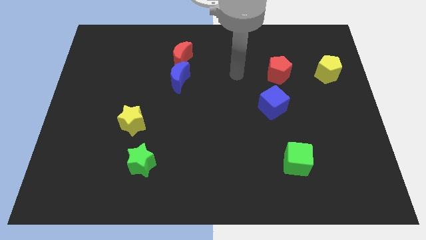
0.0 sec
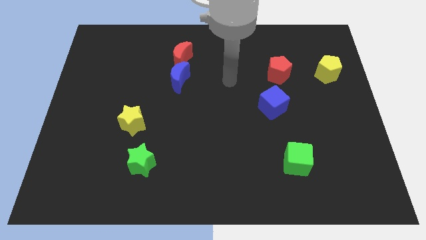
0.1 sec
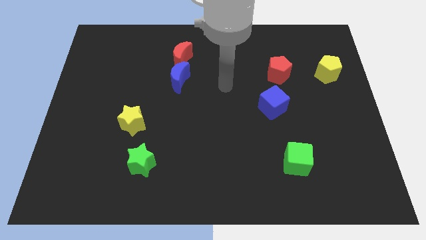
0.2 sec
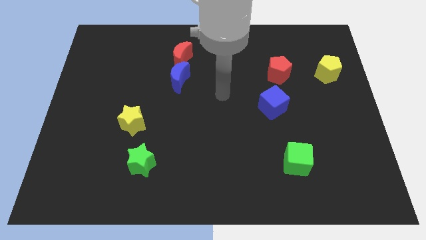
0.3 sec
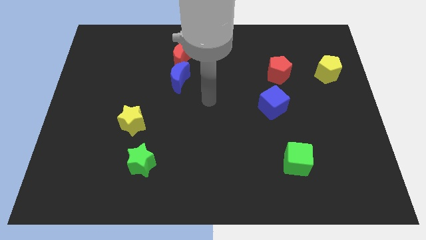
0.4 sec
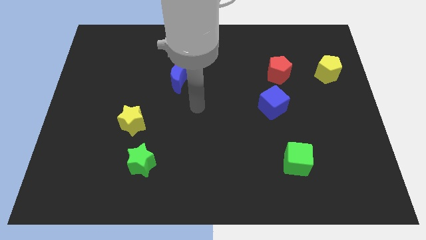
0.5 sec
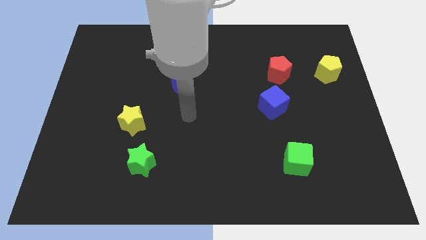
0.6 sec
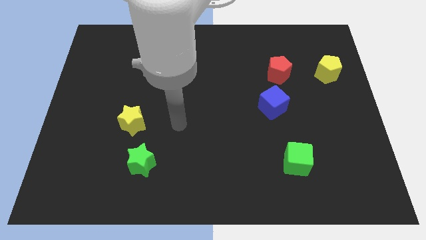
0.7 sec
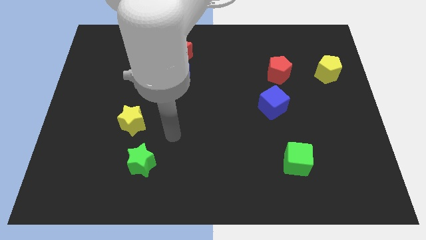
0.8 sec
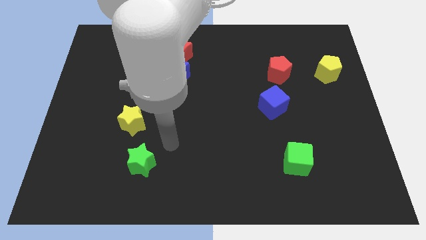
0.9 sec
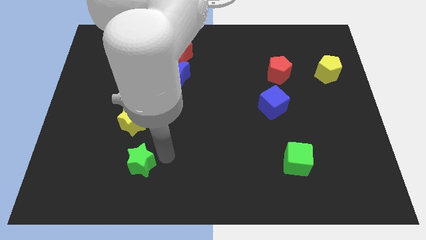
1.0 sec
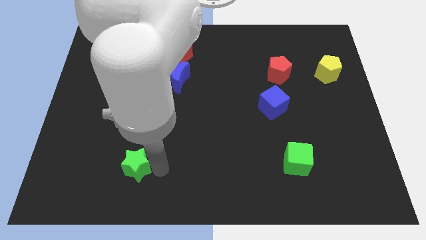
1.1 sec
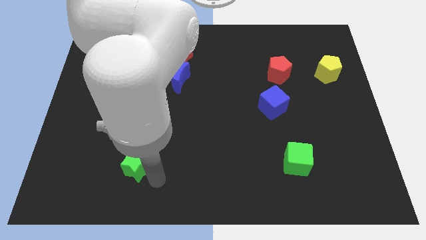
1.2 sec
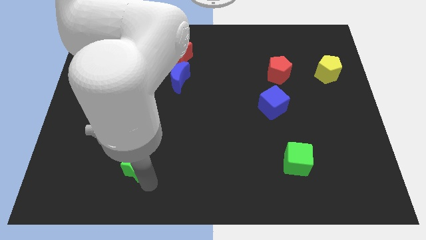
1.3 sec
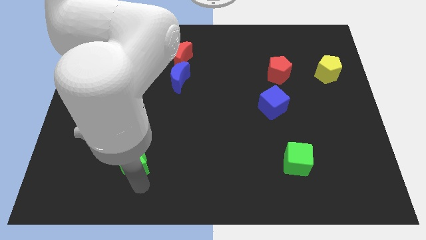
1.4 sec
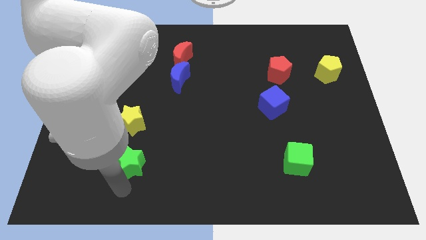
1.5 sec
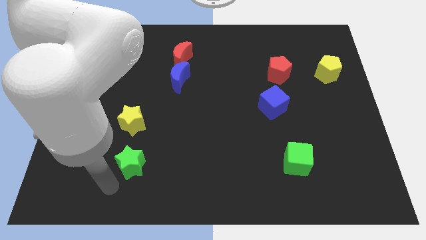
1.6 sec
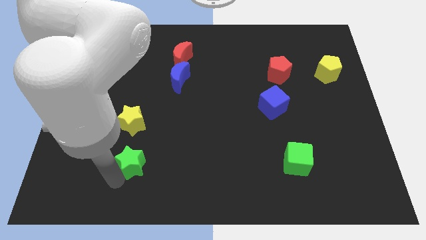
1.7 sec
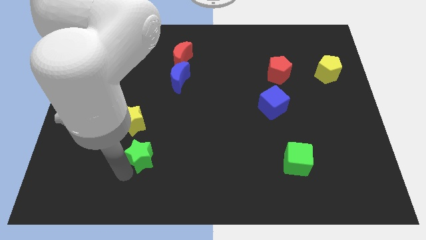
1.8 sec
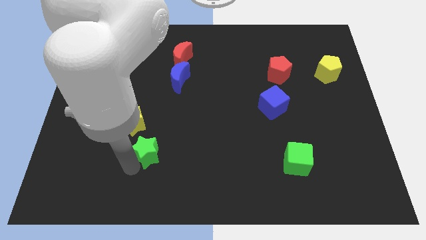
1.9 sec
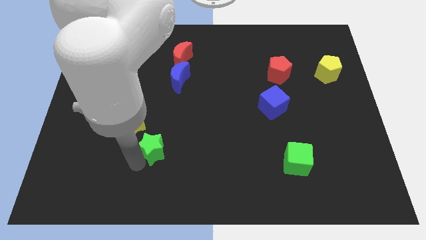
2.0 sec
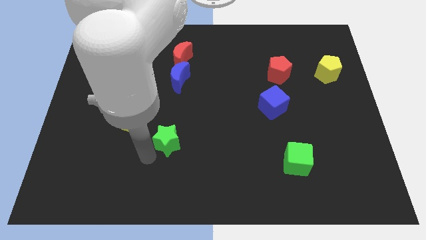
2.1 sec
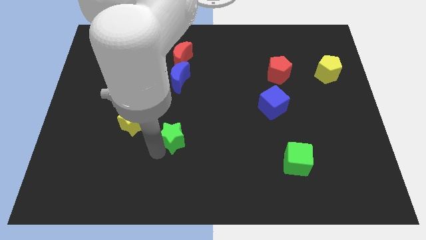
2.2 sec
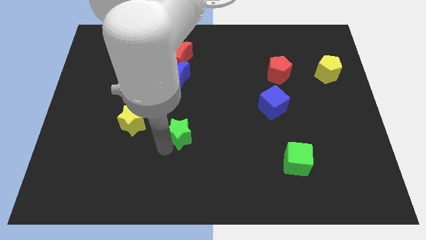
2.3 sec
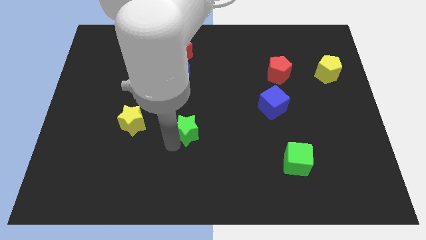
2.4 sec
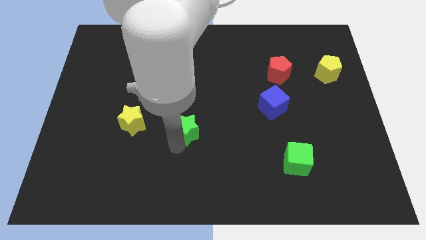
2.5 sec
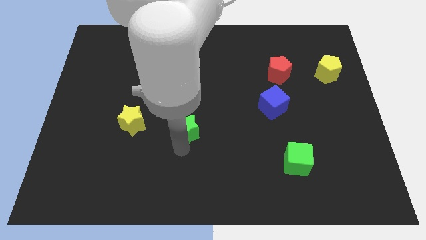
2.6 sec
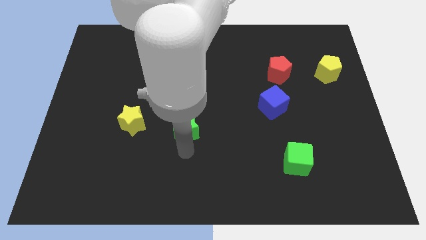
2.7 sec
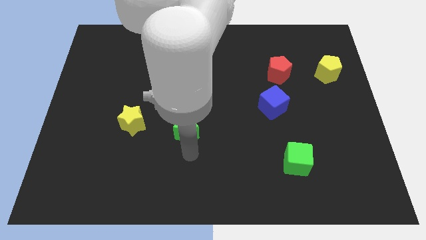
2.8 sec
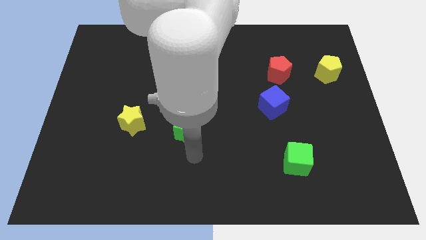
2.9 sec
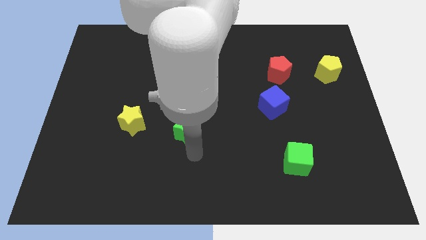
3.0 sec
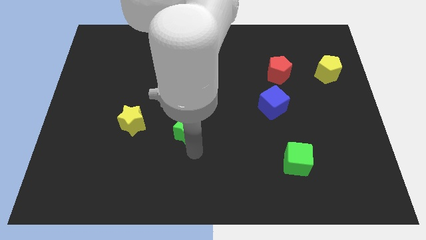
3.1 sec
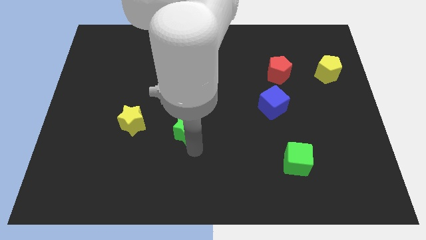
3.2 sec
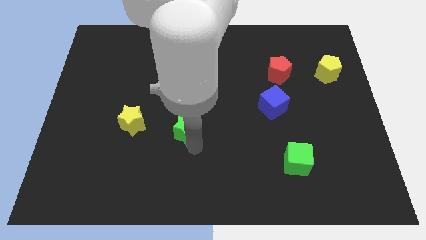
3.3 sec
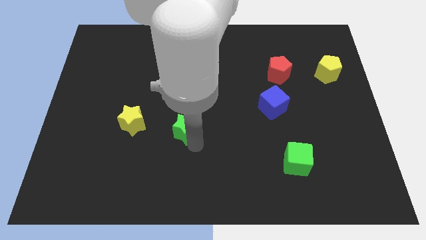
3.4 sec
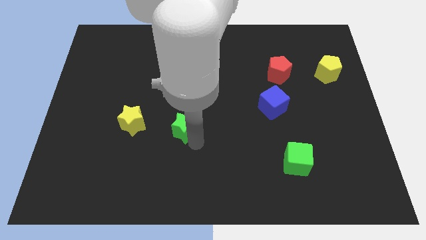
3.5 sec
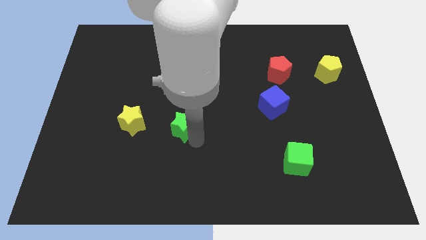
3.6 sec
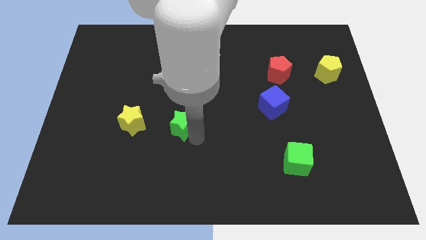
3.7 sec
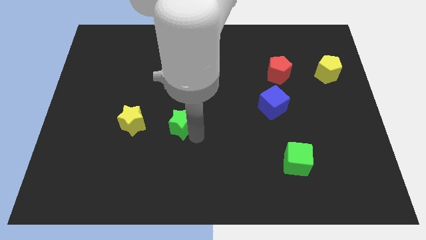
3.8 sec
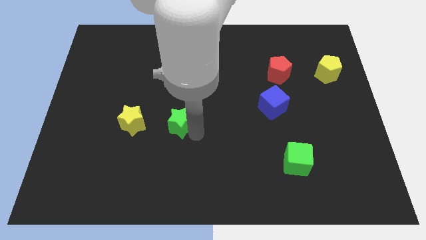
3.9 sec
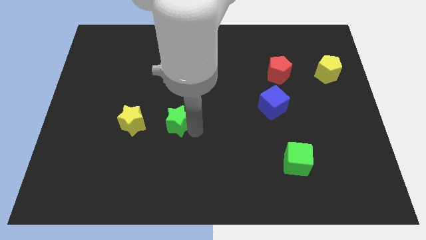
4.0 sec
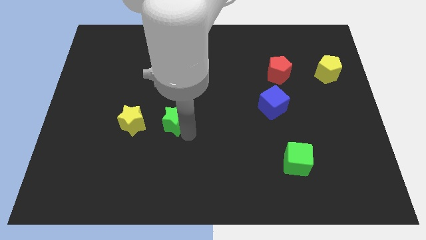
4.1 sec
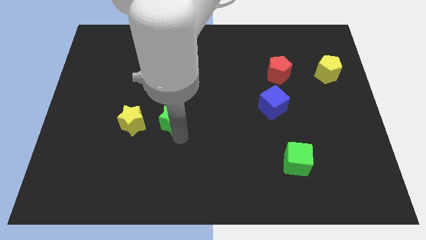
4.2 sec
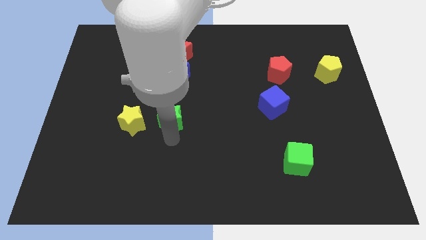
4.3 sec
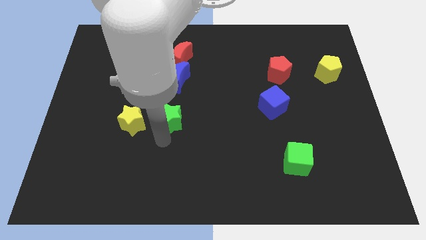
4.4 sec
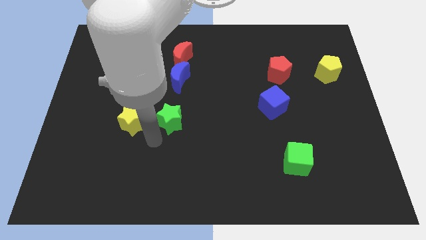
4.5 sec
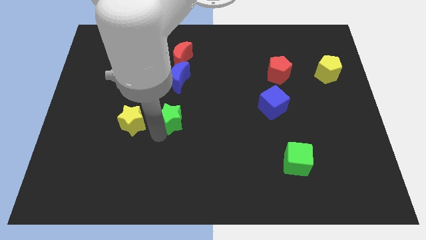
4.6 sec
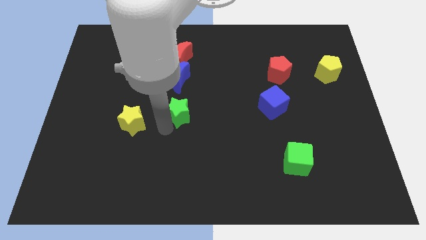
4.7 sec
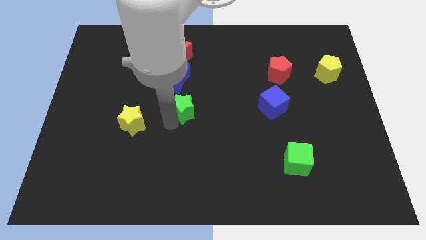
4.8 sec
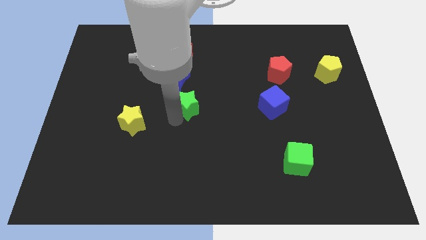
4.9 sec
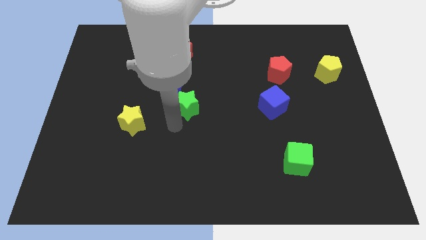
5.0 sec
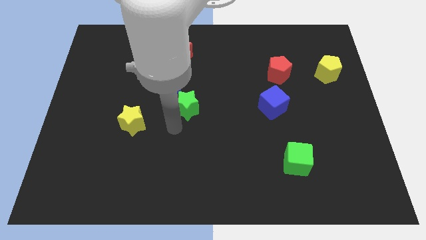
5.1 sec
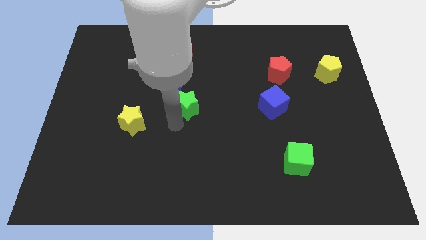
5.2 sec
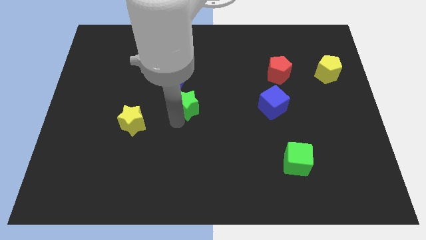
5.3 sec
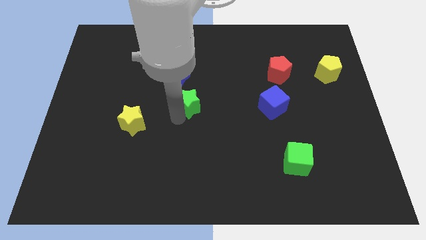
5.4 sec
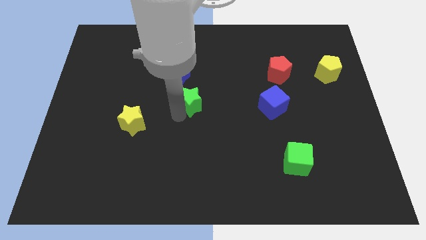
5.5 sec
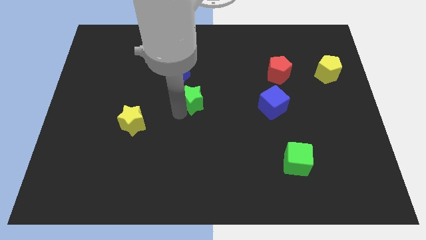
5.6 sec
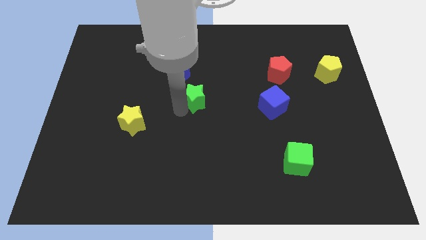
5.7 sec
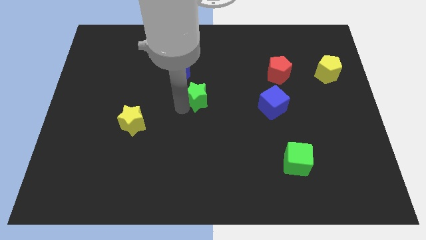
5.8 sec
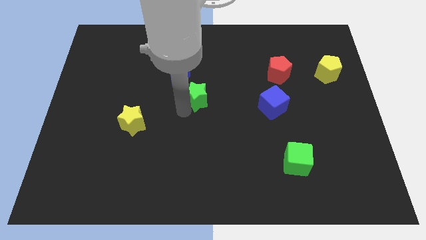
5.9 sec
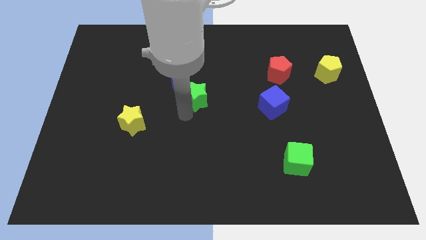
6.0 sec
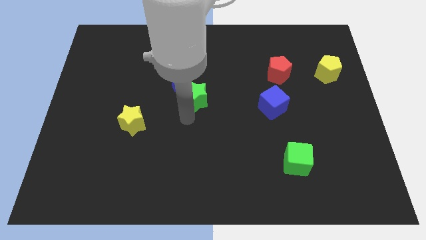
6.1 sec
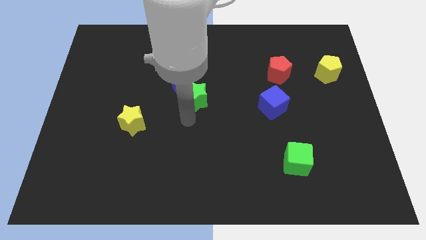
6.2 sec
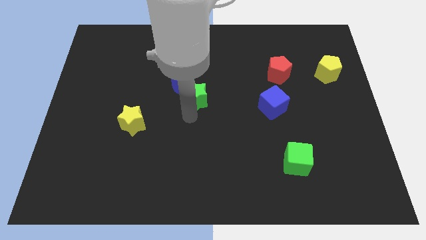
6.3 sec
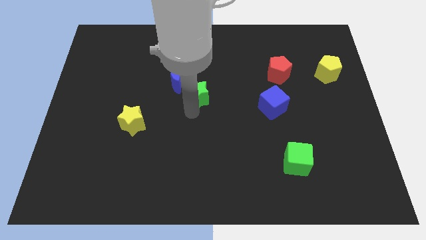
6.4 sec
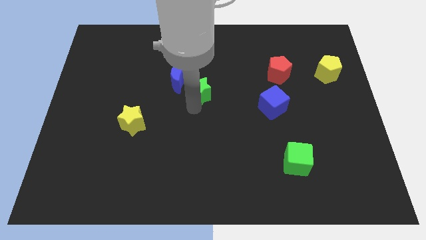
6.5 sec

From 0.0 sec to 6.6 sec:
move the green star right of the blue moon
